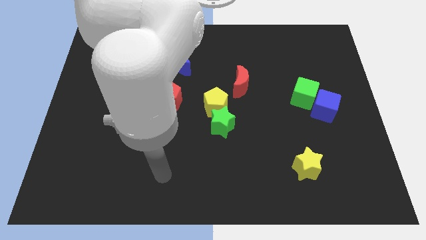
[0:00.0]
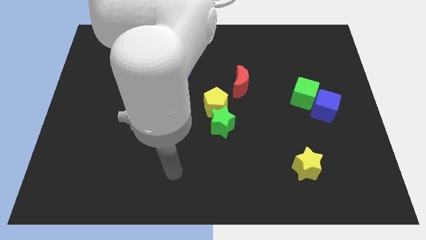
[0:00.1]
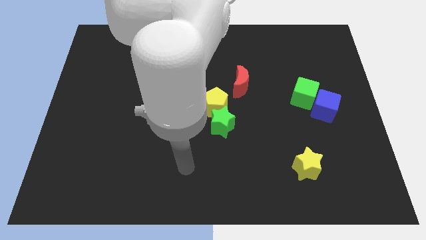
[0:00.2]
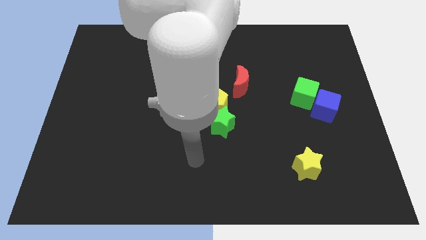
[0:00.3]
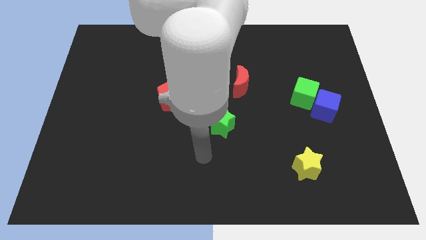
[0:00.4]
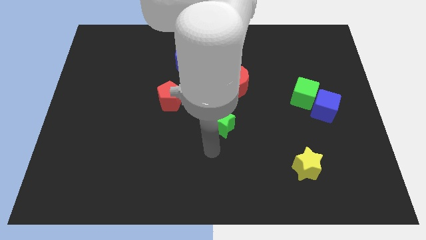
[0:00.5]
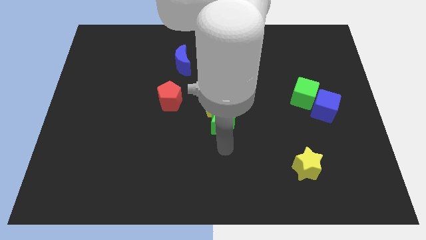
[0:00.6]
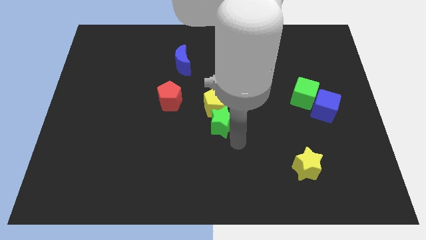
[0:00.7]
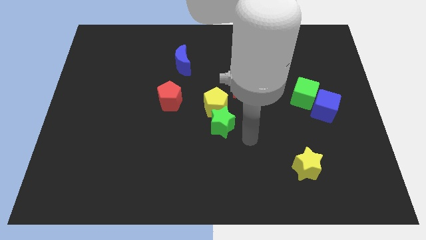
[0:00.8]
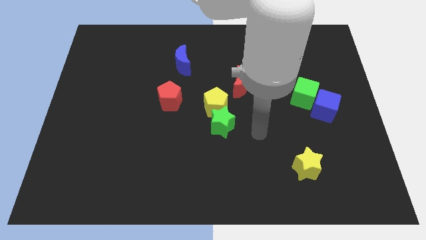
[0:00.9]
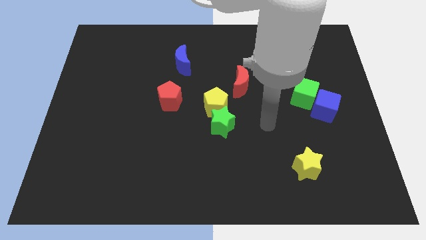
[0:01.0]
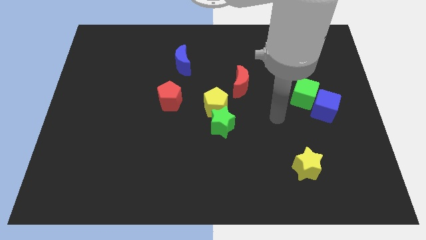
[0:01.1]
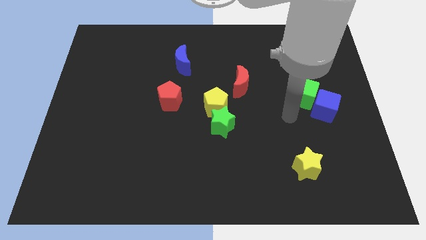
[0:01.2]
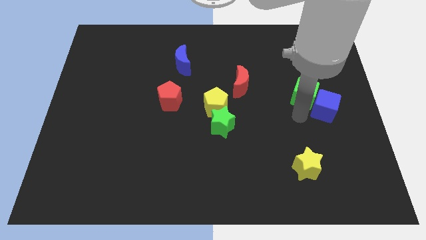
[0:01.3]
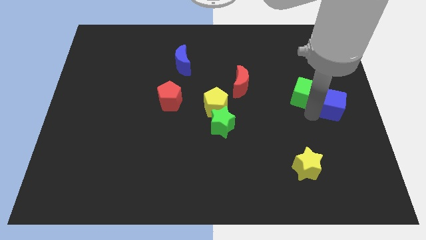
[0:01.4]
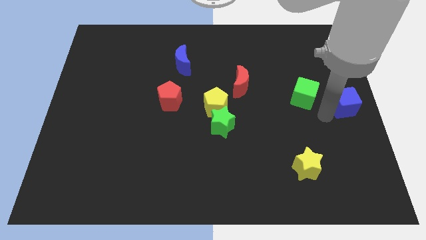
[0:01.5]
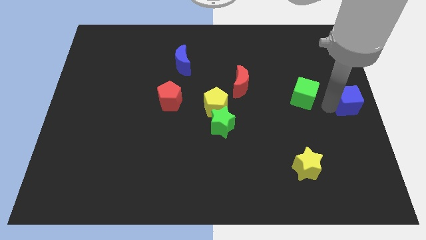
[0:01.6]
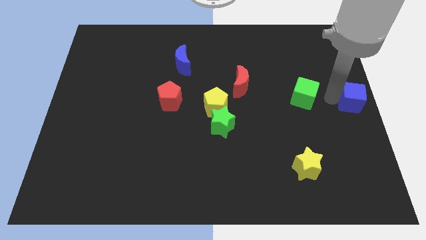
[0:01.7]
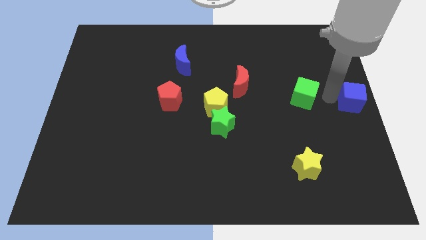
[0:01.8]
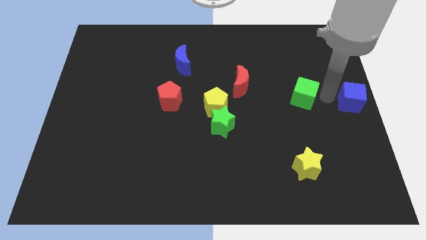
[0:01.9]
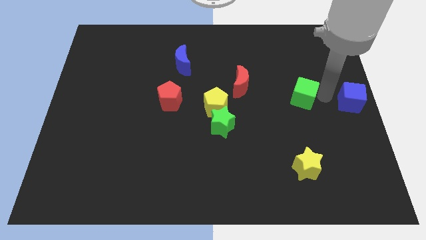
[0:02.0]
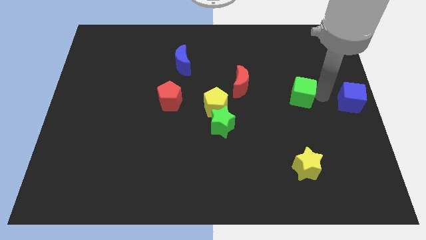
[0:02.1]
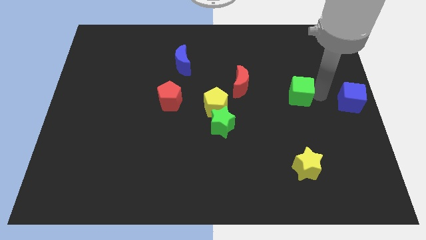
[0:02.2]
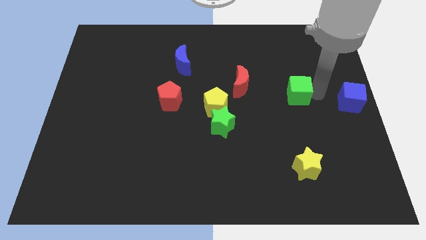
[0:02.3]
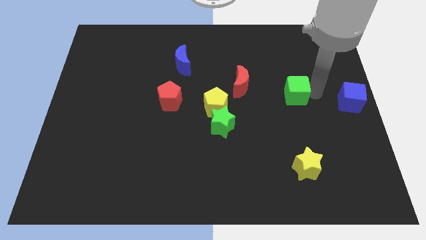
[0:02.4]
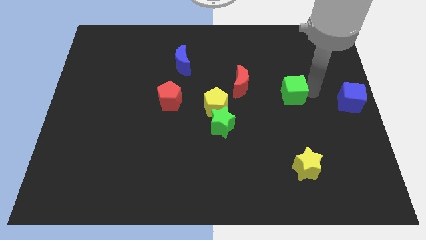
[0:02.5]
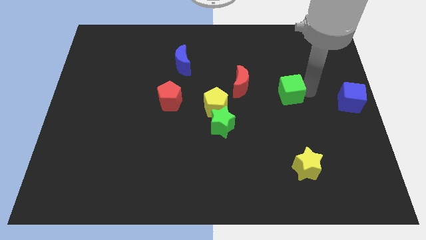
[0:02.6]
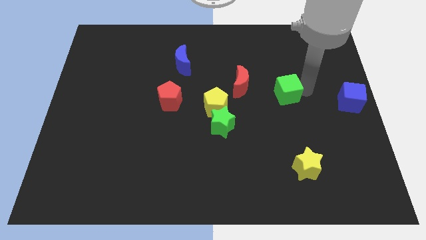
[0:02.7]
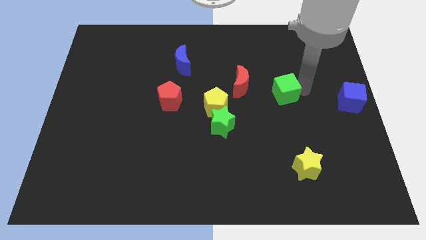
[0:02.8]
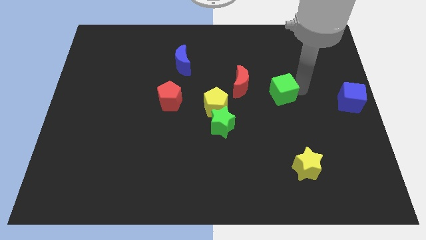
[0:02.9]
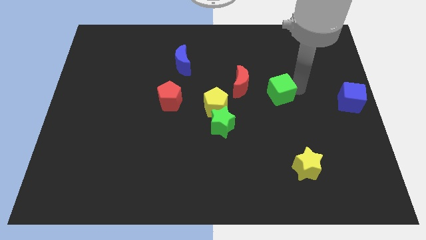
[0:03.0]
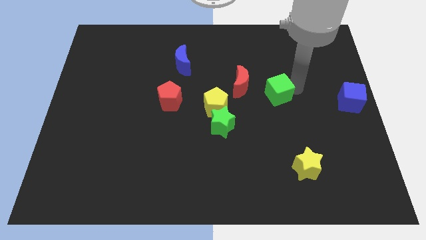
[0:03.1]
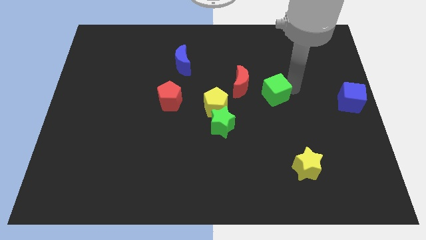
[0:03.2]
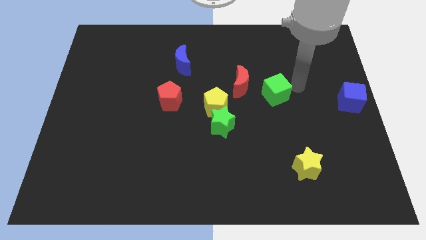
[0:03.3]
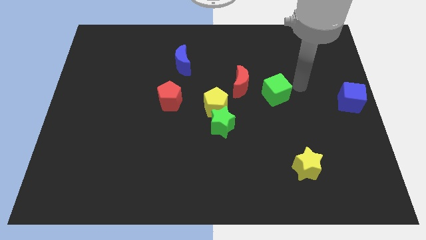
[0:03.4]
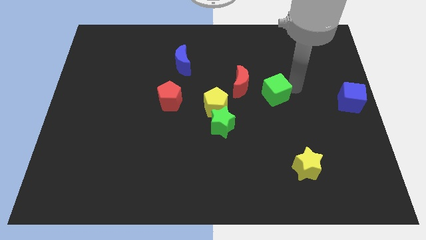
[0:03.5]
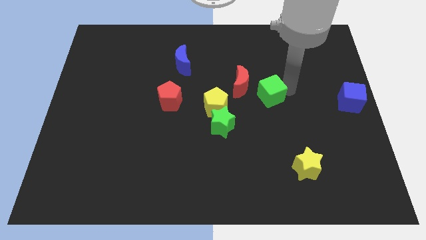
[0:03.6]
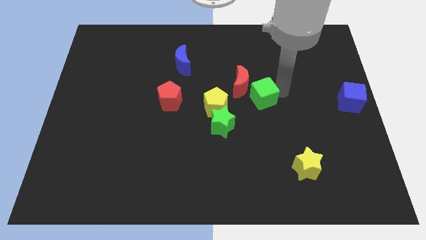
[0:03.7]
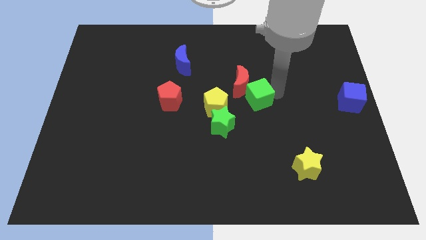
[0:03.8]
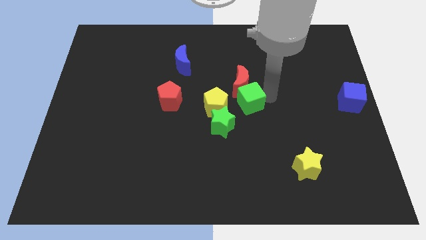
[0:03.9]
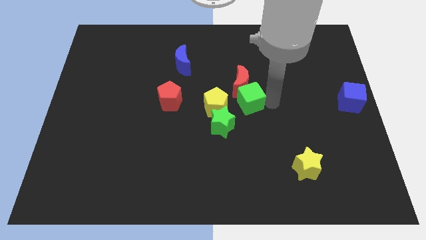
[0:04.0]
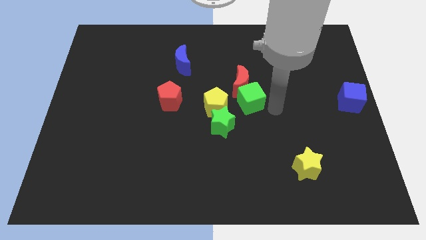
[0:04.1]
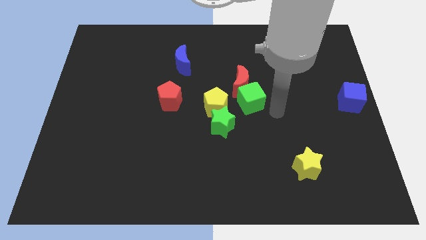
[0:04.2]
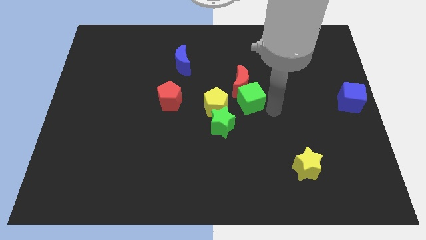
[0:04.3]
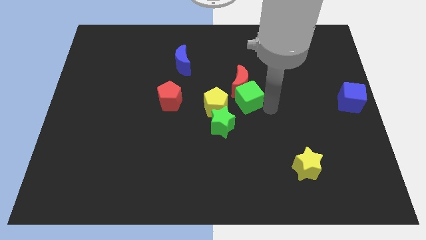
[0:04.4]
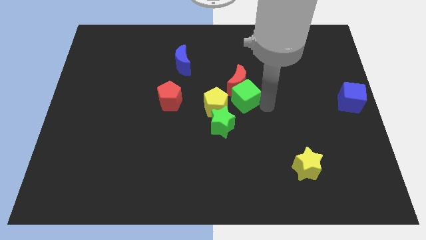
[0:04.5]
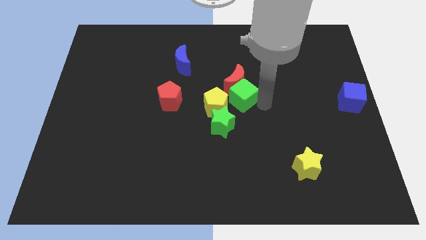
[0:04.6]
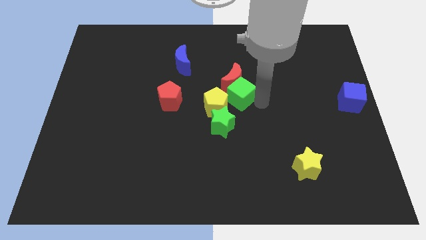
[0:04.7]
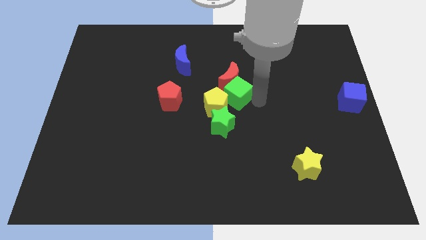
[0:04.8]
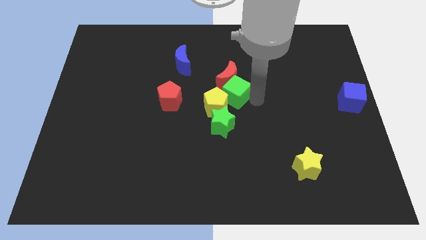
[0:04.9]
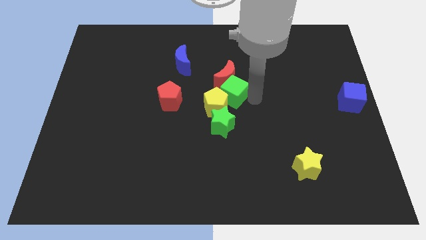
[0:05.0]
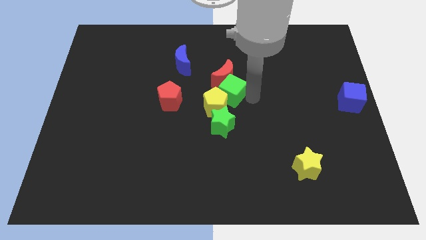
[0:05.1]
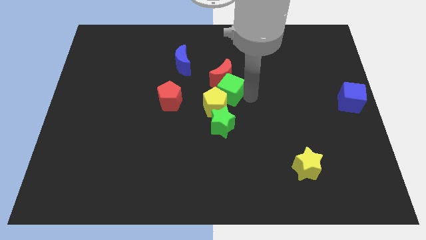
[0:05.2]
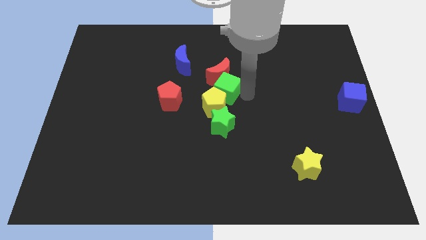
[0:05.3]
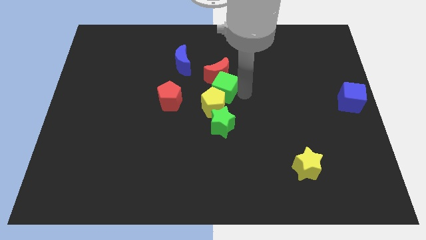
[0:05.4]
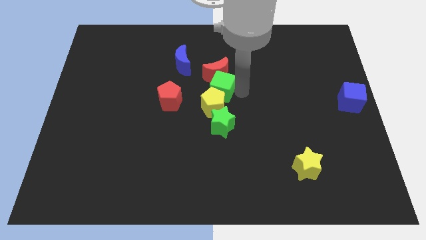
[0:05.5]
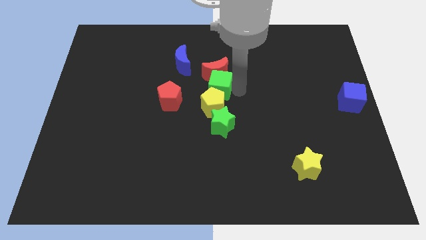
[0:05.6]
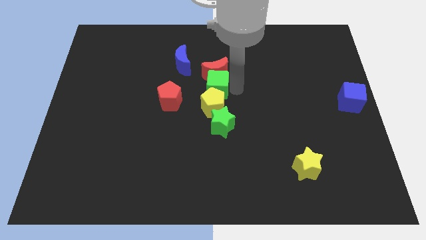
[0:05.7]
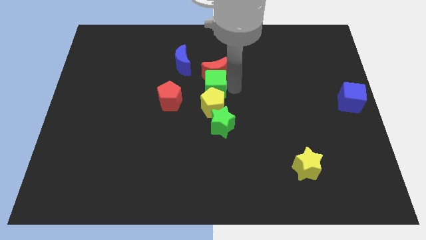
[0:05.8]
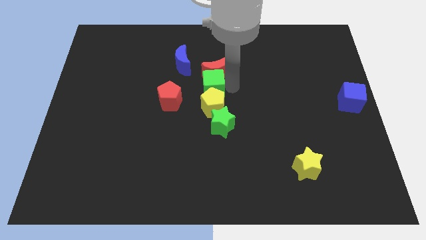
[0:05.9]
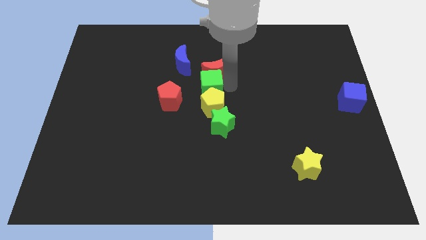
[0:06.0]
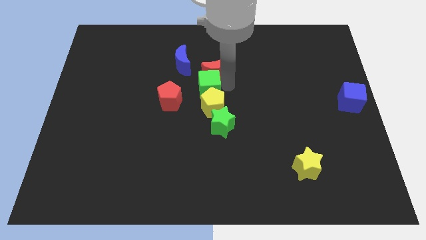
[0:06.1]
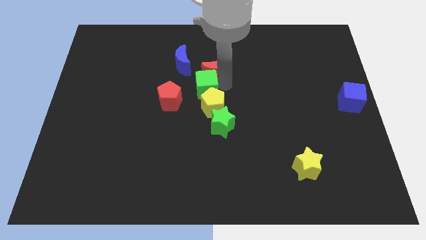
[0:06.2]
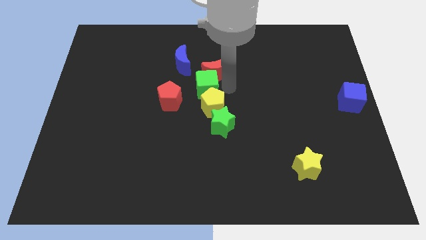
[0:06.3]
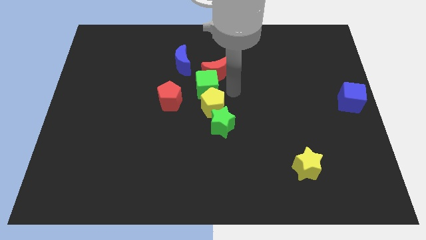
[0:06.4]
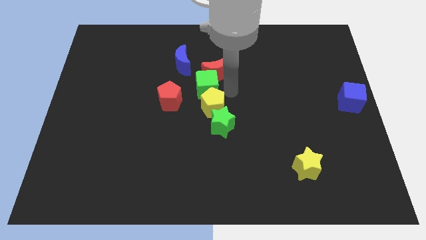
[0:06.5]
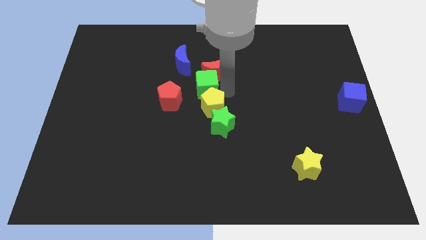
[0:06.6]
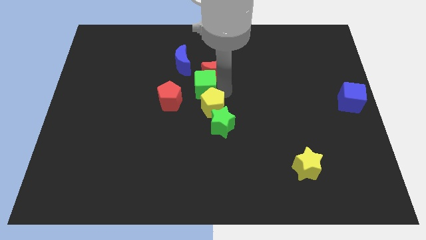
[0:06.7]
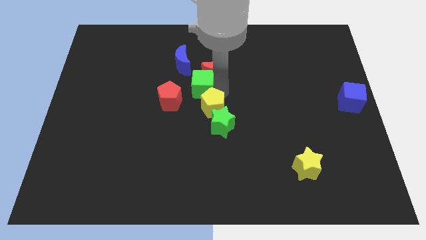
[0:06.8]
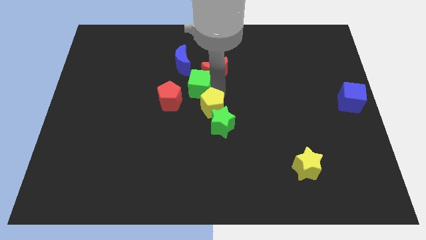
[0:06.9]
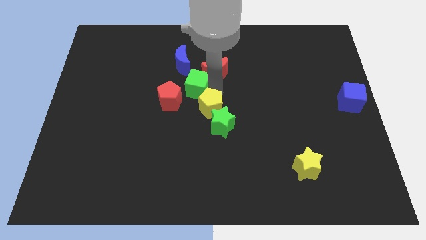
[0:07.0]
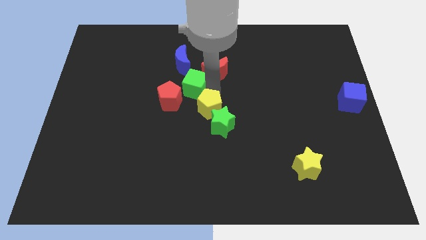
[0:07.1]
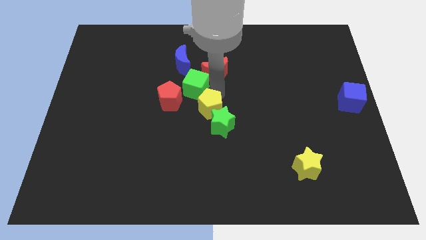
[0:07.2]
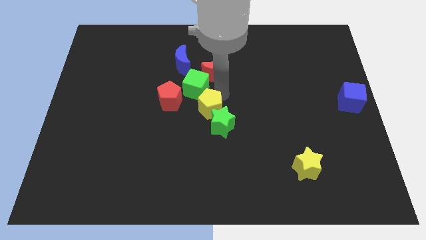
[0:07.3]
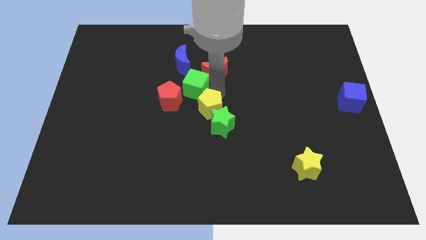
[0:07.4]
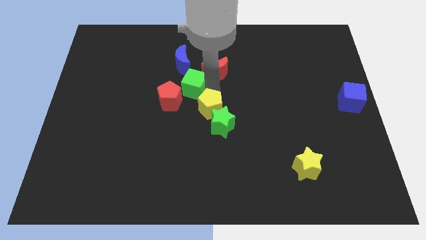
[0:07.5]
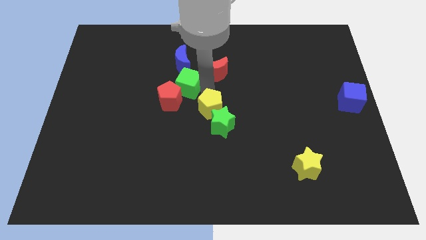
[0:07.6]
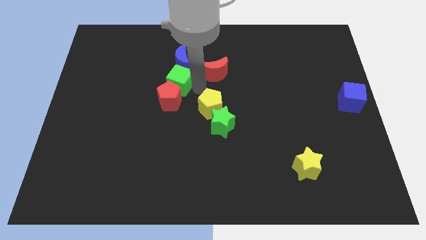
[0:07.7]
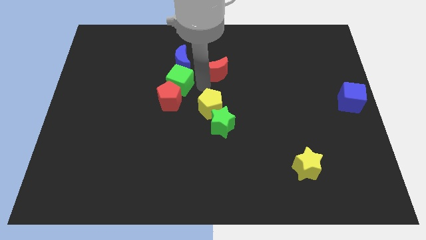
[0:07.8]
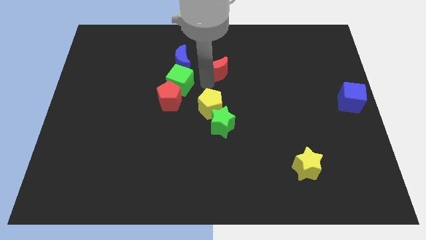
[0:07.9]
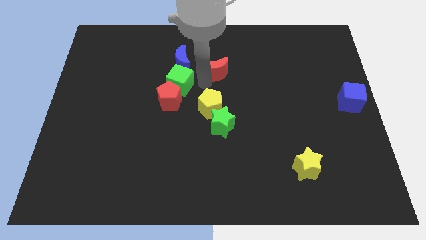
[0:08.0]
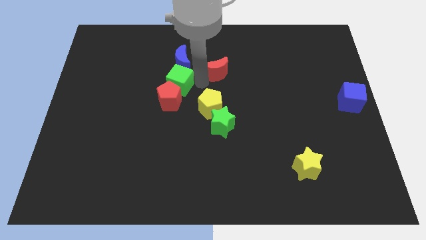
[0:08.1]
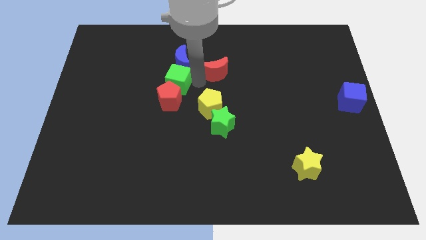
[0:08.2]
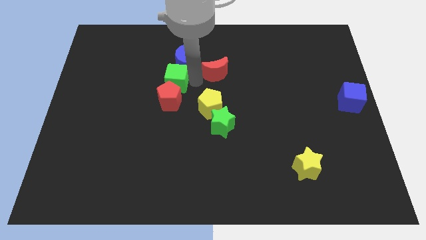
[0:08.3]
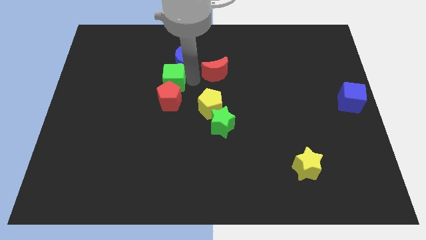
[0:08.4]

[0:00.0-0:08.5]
push the green cube to the top left side of the red pentagon

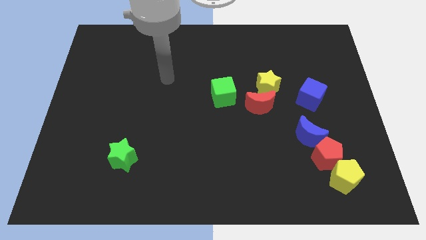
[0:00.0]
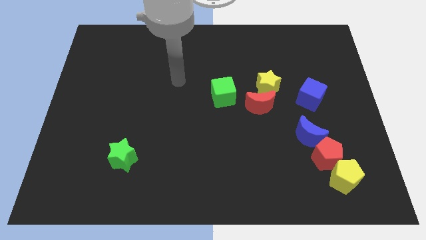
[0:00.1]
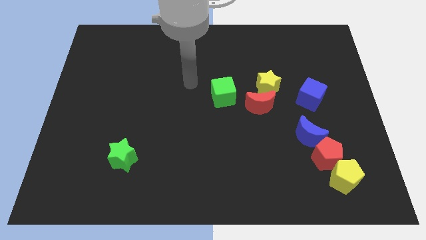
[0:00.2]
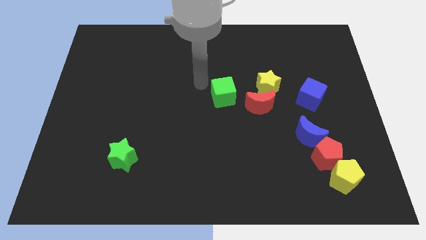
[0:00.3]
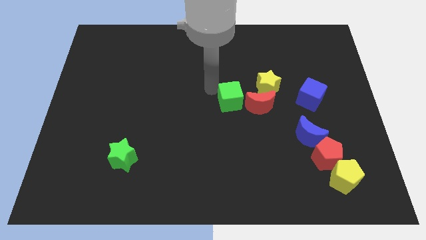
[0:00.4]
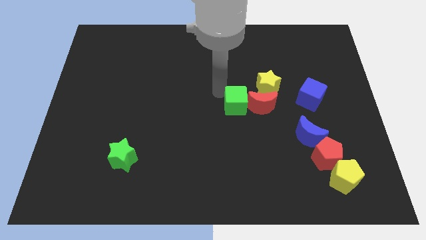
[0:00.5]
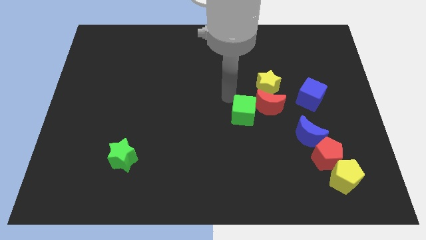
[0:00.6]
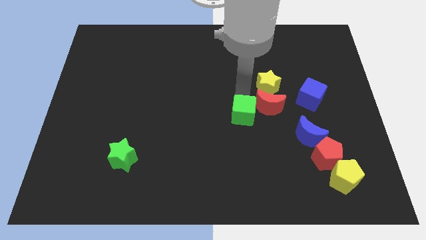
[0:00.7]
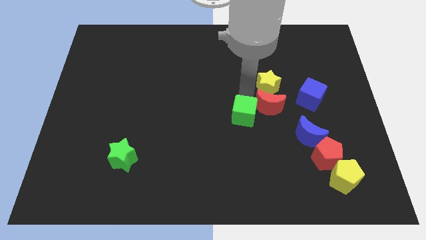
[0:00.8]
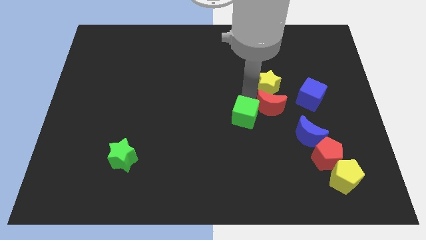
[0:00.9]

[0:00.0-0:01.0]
slide the red moon to the bottom left of the blue cube
